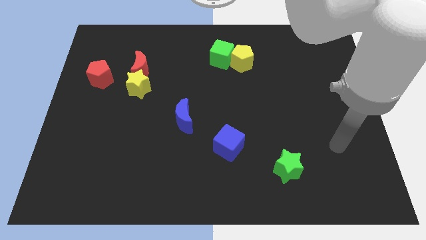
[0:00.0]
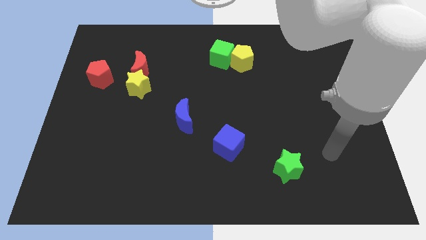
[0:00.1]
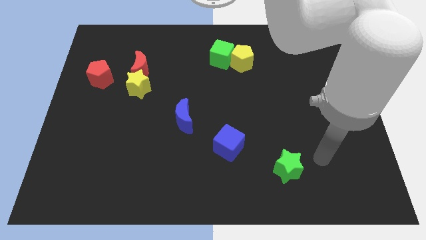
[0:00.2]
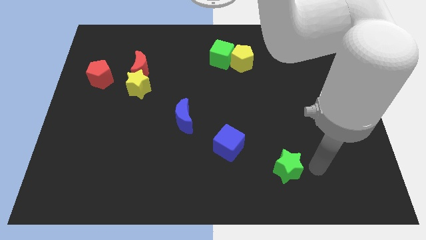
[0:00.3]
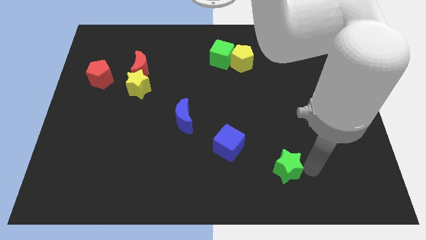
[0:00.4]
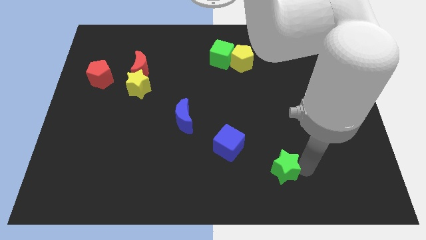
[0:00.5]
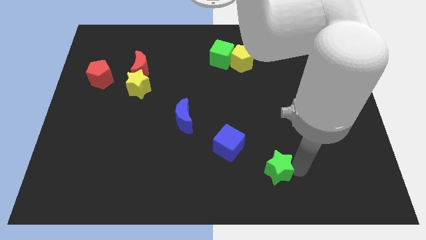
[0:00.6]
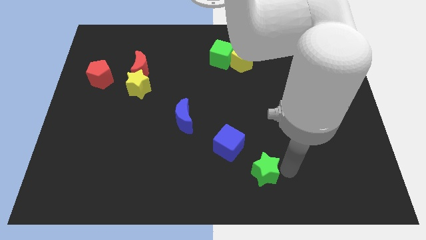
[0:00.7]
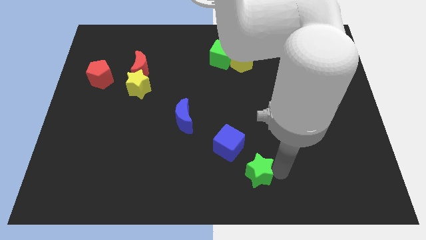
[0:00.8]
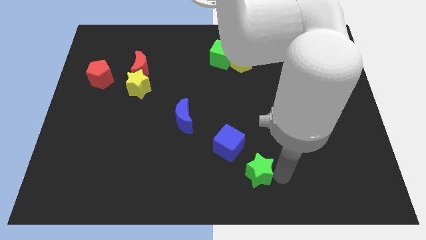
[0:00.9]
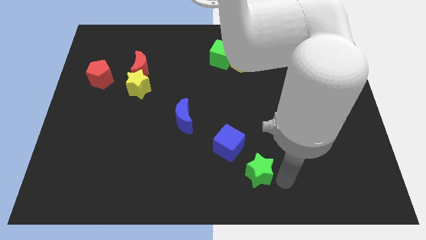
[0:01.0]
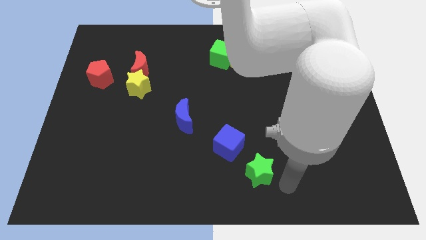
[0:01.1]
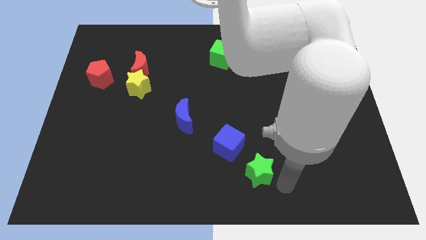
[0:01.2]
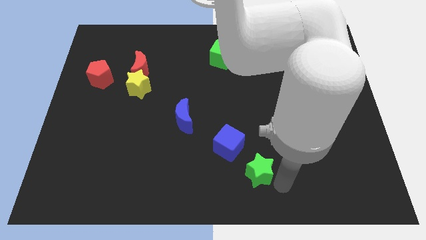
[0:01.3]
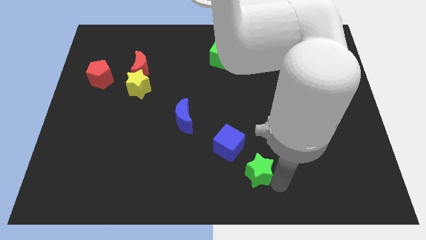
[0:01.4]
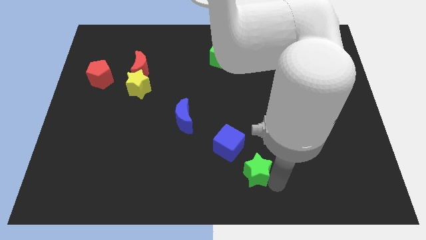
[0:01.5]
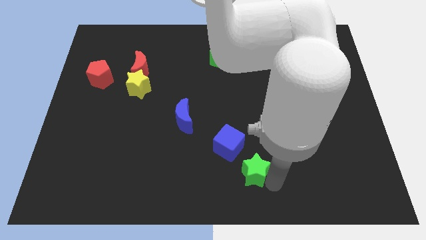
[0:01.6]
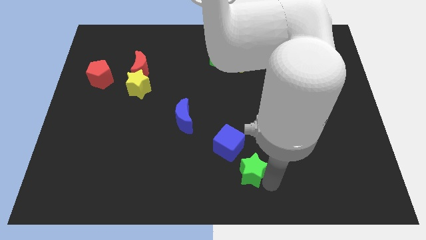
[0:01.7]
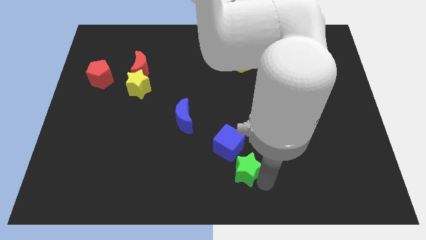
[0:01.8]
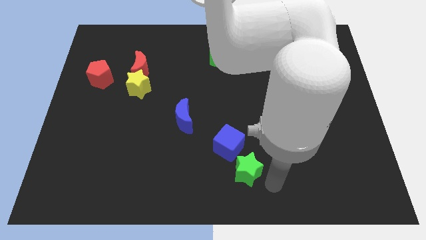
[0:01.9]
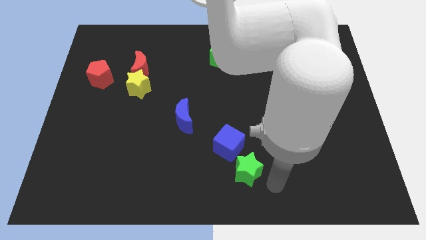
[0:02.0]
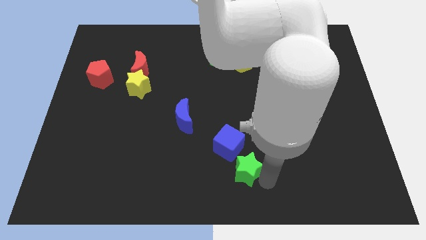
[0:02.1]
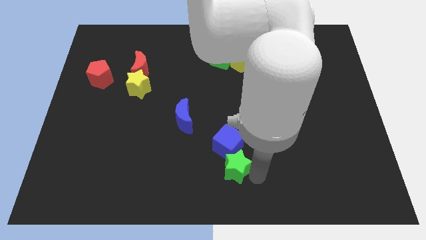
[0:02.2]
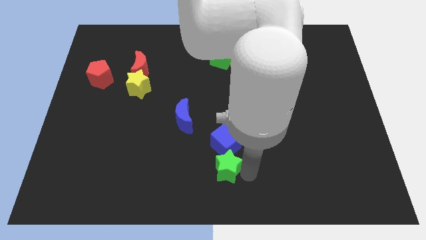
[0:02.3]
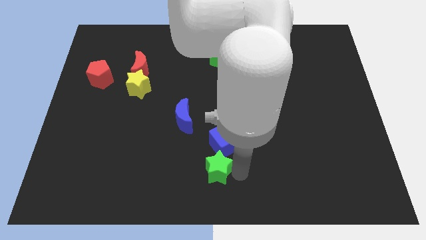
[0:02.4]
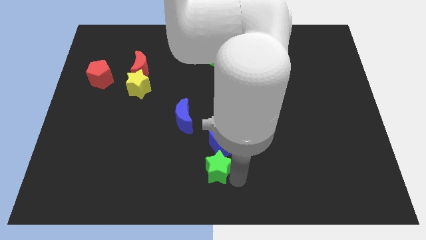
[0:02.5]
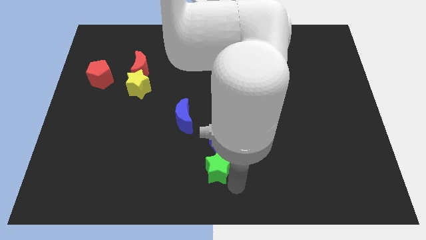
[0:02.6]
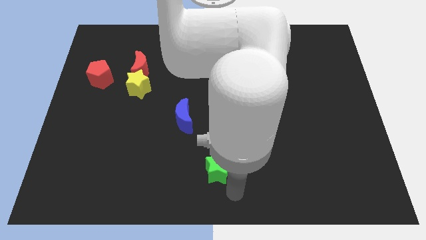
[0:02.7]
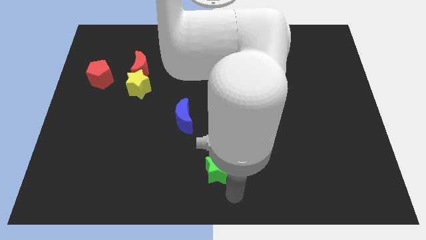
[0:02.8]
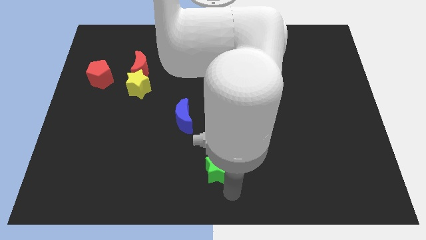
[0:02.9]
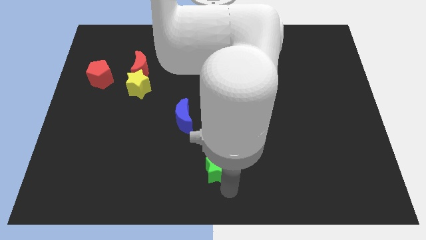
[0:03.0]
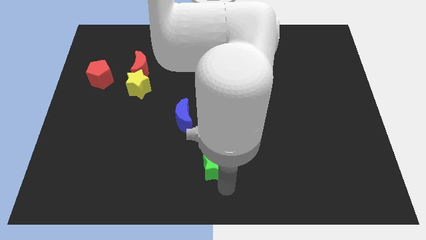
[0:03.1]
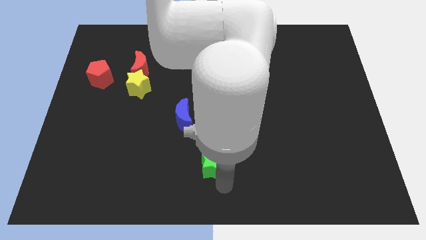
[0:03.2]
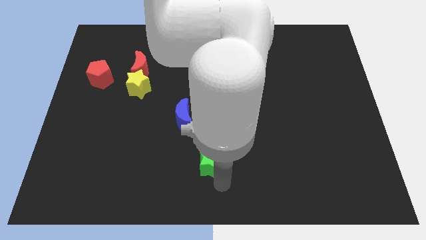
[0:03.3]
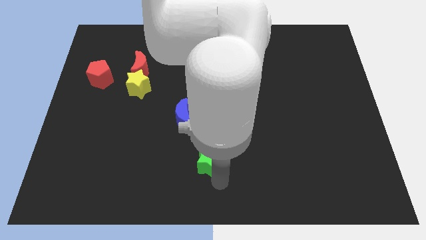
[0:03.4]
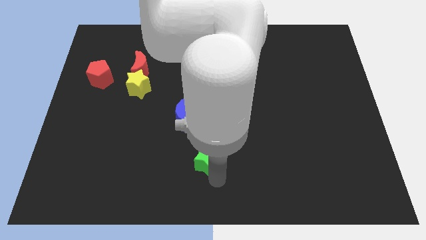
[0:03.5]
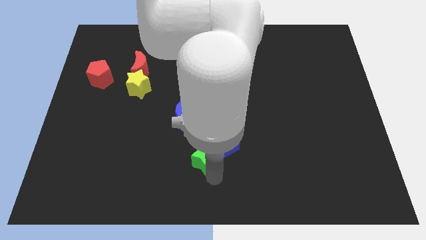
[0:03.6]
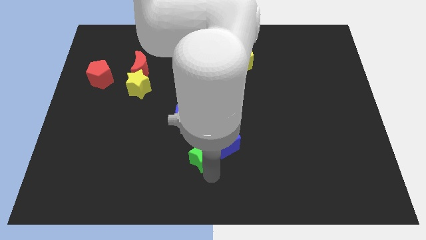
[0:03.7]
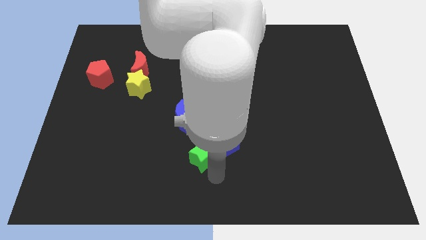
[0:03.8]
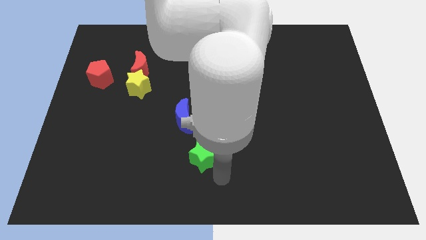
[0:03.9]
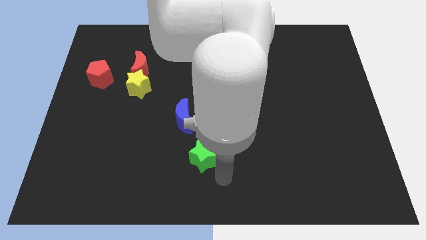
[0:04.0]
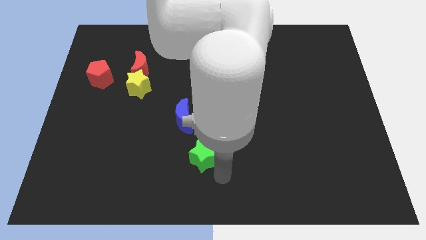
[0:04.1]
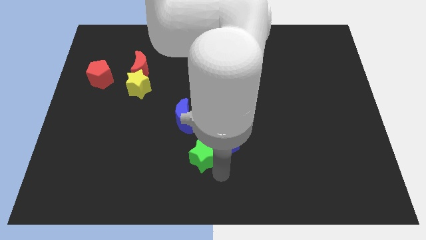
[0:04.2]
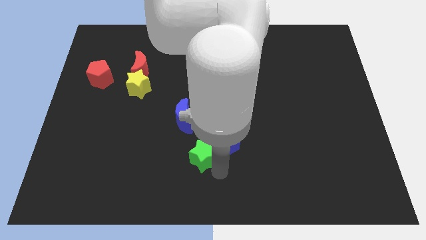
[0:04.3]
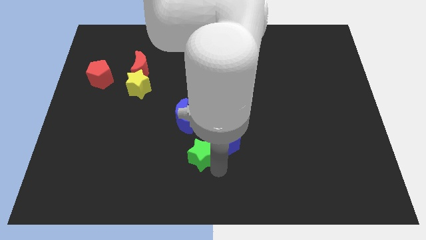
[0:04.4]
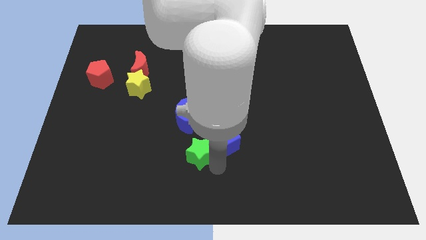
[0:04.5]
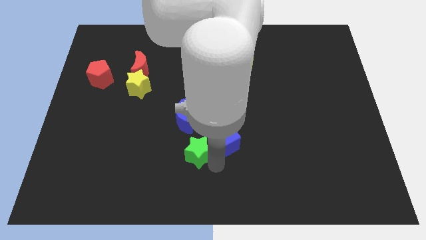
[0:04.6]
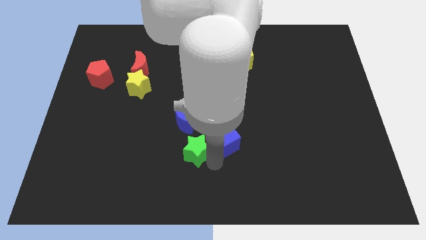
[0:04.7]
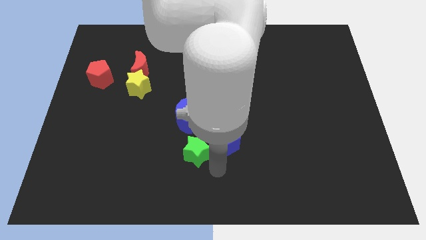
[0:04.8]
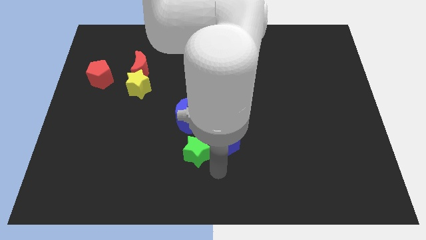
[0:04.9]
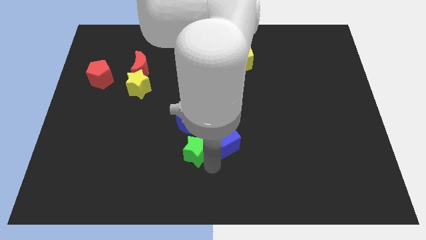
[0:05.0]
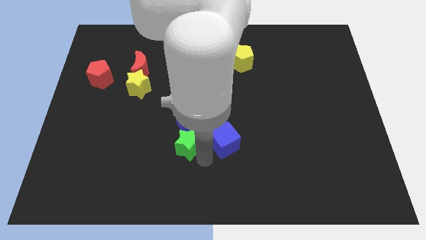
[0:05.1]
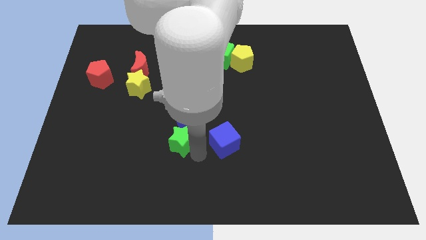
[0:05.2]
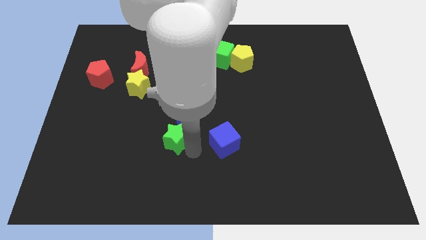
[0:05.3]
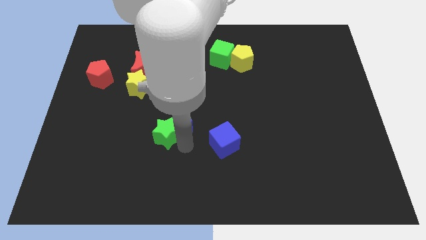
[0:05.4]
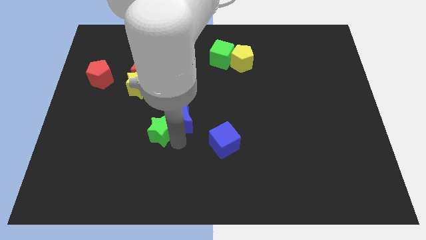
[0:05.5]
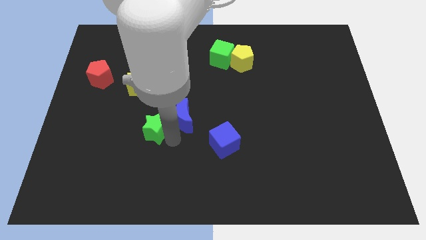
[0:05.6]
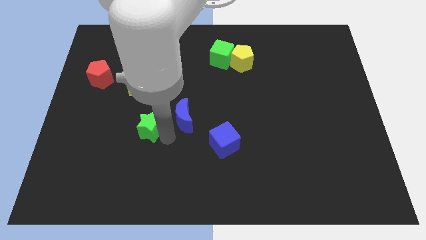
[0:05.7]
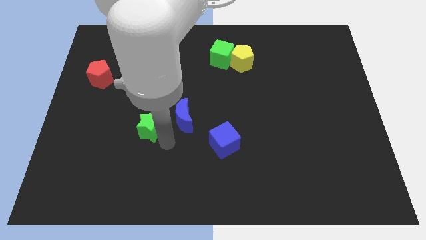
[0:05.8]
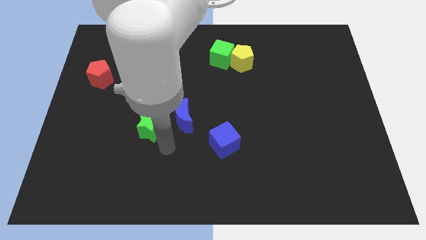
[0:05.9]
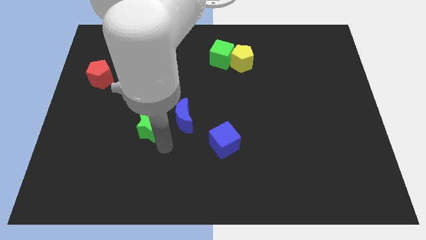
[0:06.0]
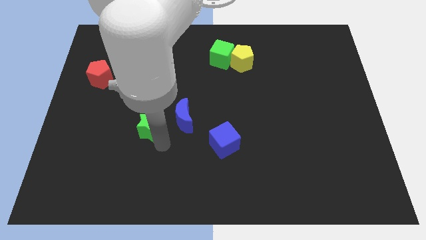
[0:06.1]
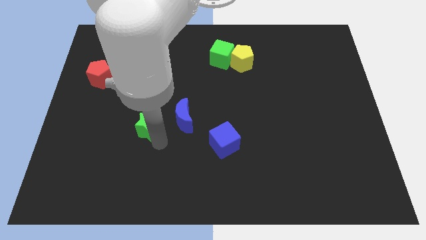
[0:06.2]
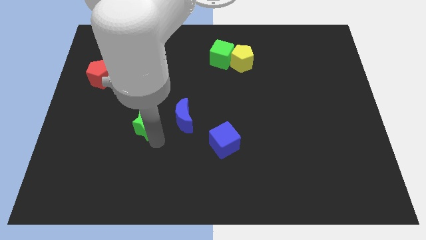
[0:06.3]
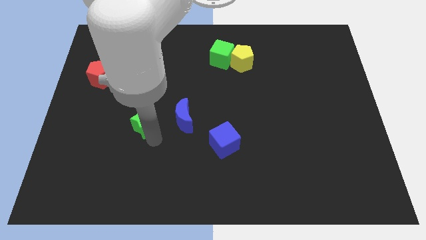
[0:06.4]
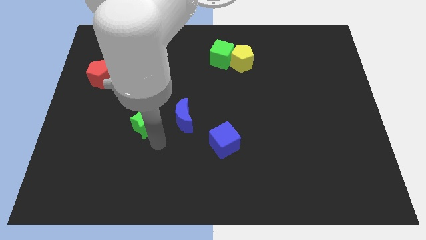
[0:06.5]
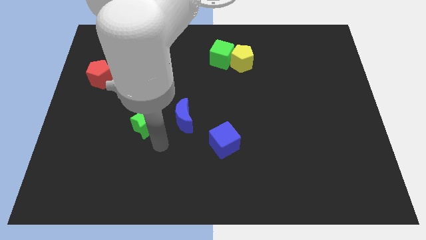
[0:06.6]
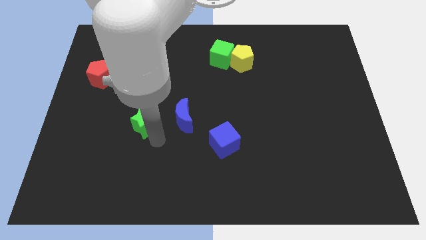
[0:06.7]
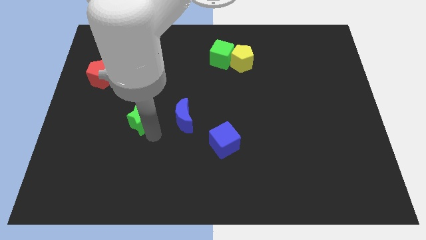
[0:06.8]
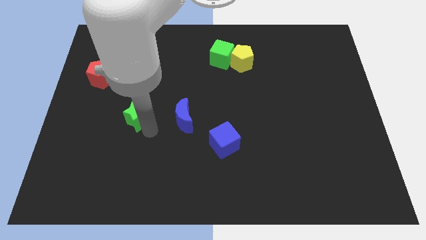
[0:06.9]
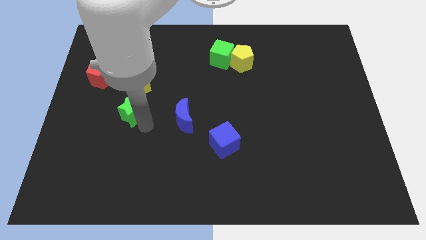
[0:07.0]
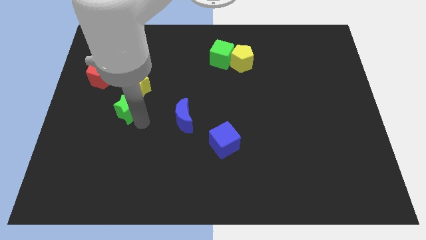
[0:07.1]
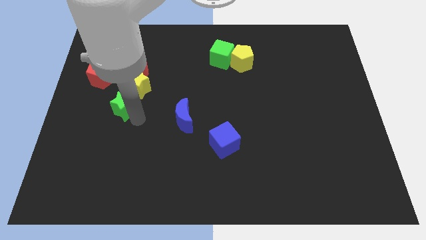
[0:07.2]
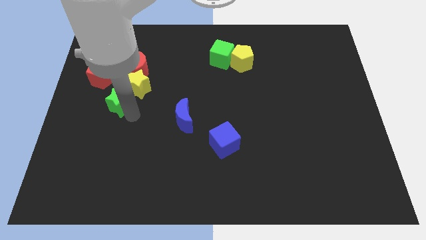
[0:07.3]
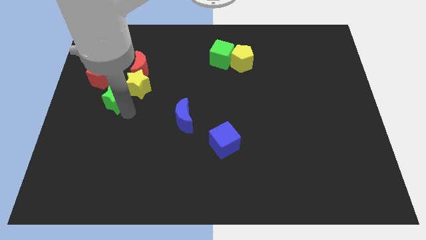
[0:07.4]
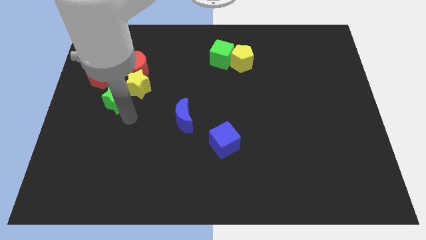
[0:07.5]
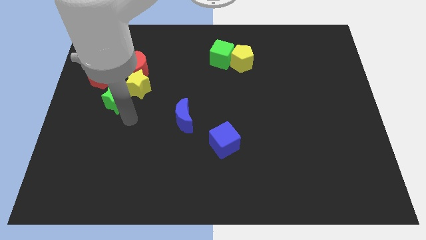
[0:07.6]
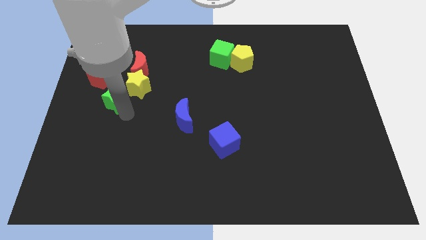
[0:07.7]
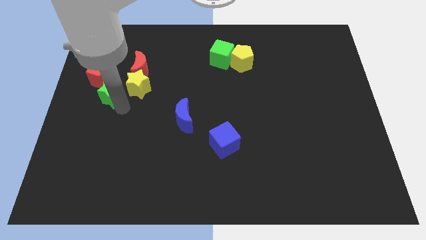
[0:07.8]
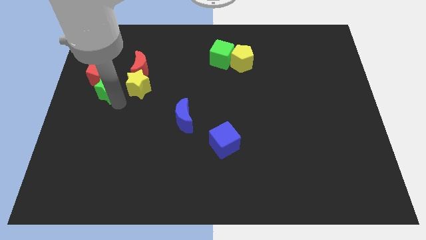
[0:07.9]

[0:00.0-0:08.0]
slide the green star to the red pentagon
